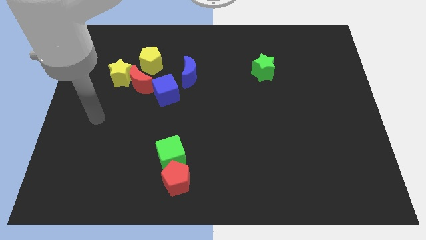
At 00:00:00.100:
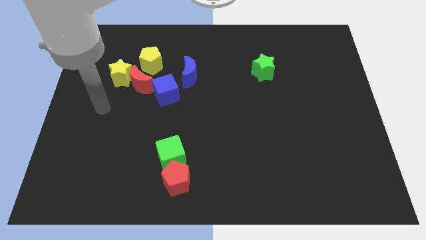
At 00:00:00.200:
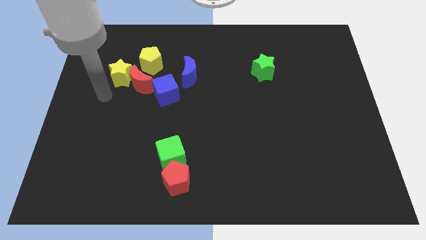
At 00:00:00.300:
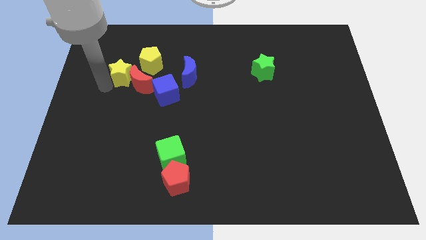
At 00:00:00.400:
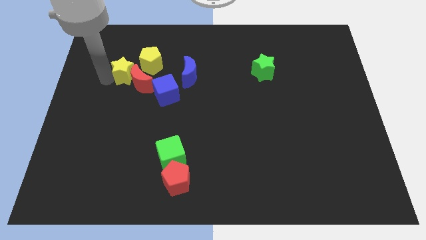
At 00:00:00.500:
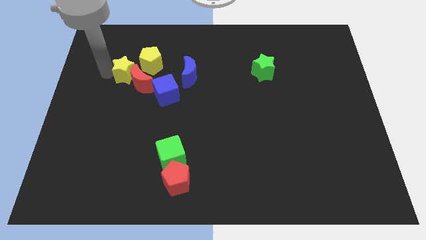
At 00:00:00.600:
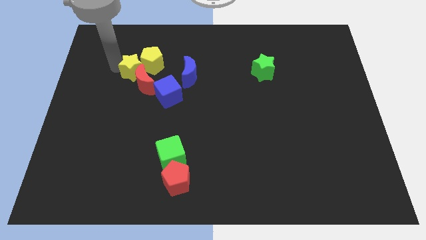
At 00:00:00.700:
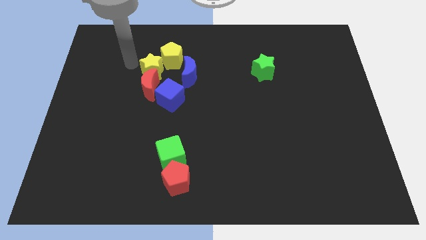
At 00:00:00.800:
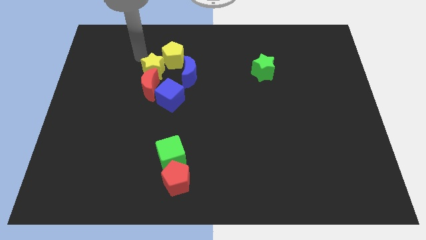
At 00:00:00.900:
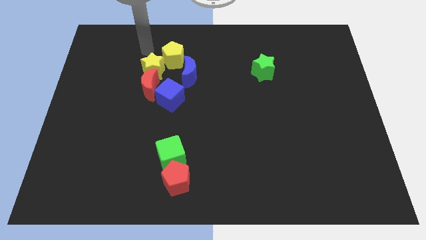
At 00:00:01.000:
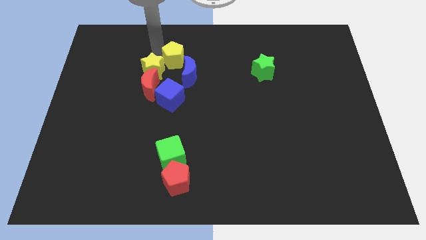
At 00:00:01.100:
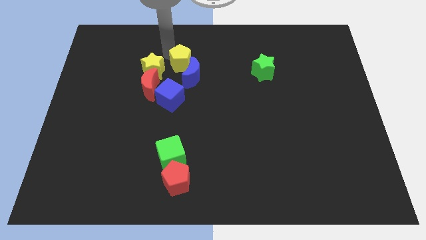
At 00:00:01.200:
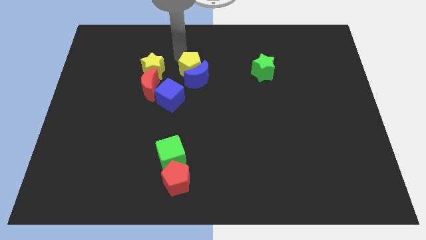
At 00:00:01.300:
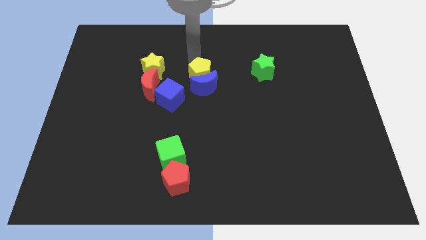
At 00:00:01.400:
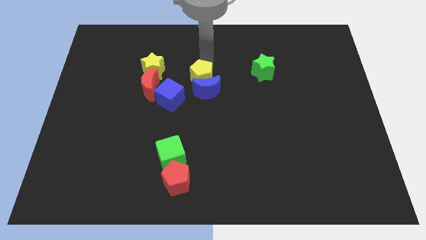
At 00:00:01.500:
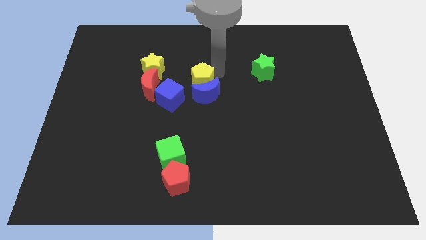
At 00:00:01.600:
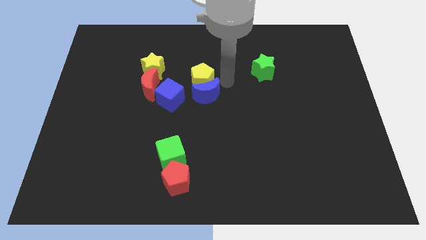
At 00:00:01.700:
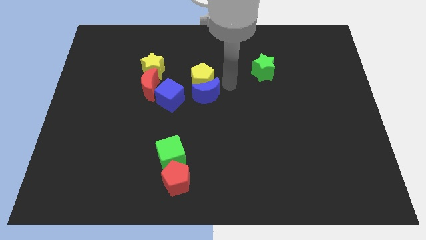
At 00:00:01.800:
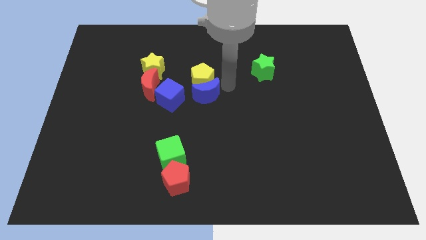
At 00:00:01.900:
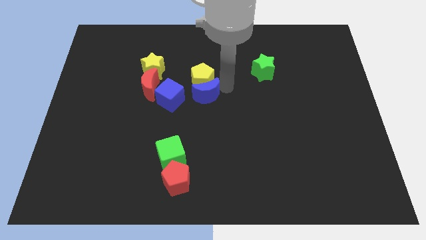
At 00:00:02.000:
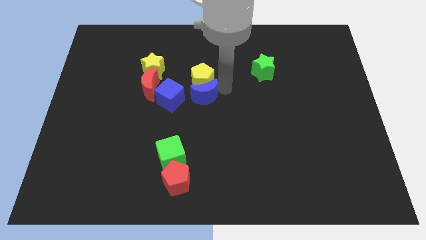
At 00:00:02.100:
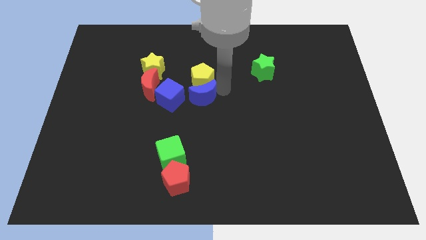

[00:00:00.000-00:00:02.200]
push the blue moon a little bit downwards

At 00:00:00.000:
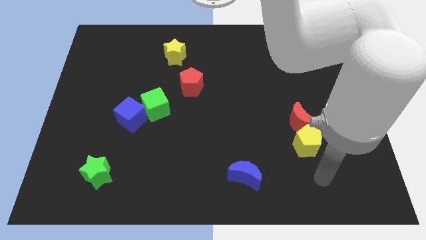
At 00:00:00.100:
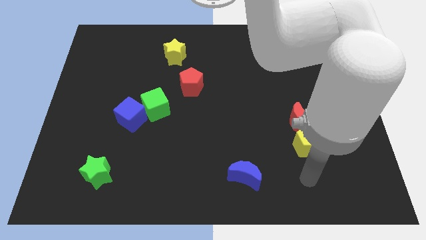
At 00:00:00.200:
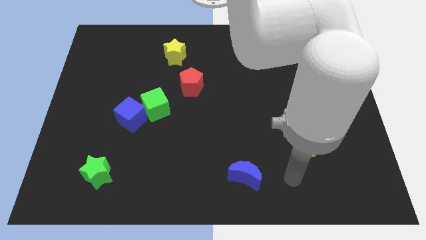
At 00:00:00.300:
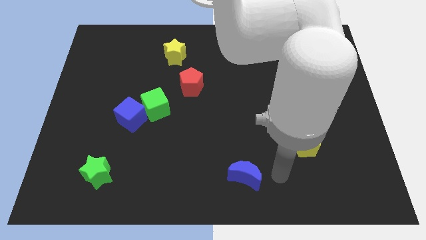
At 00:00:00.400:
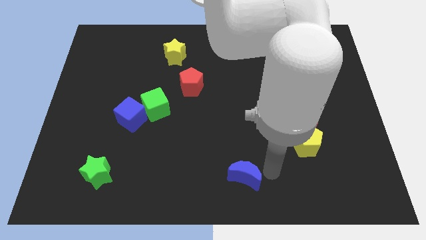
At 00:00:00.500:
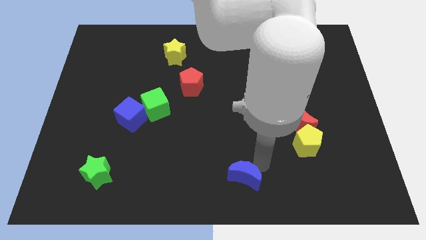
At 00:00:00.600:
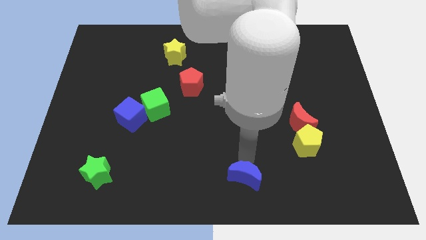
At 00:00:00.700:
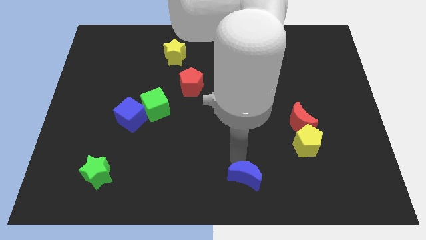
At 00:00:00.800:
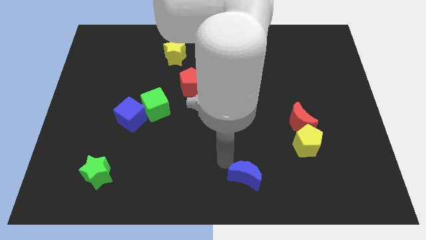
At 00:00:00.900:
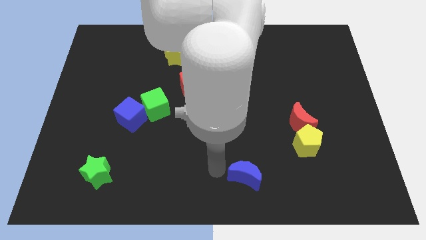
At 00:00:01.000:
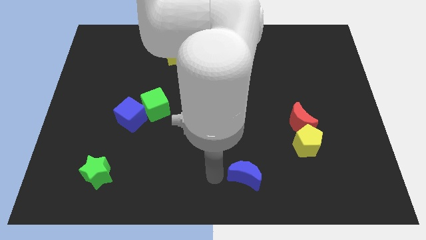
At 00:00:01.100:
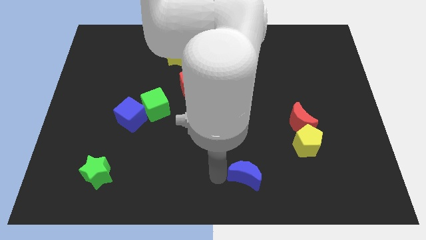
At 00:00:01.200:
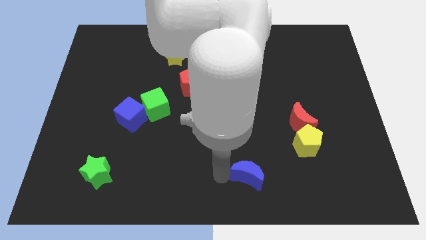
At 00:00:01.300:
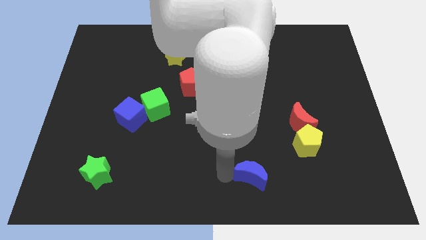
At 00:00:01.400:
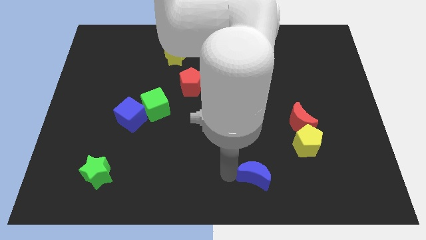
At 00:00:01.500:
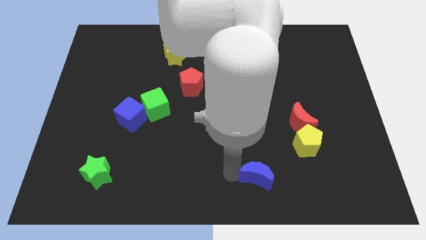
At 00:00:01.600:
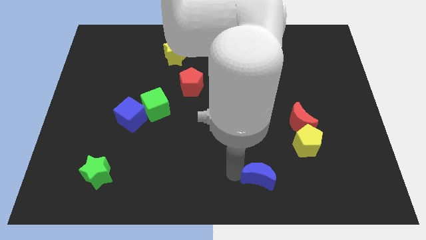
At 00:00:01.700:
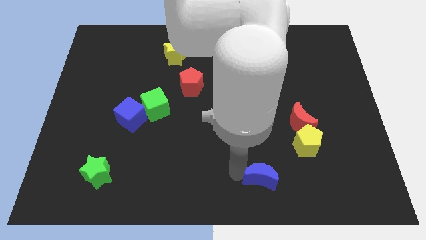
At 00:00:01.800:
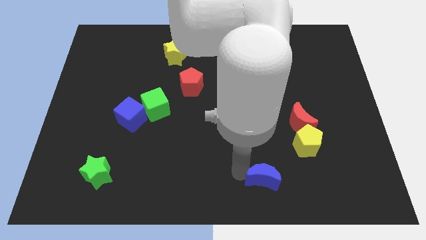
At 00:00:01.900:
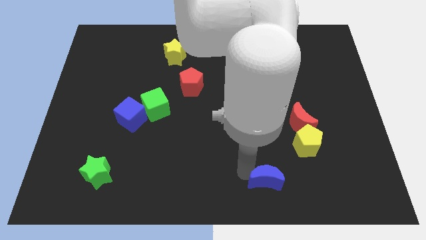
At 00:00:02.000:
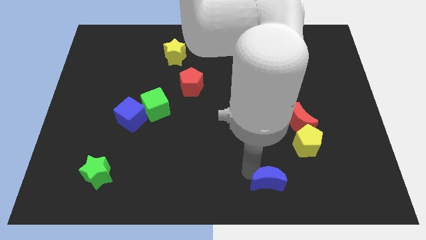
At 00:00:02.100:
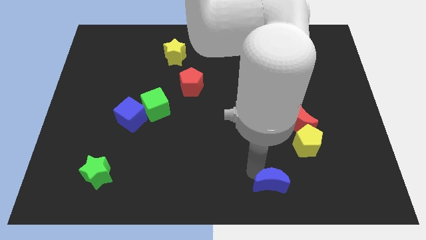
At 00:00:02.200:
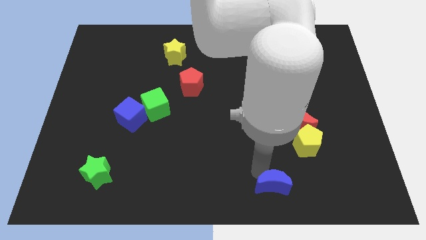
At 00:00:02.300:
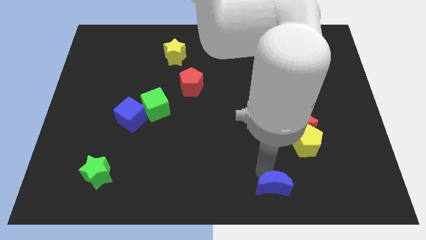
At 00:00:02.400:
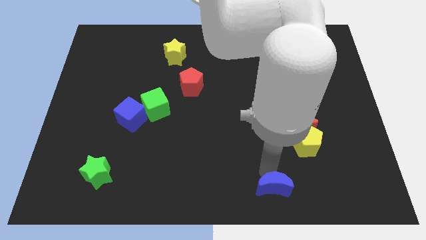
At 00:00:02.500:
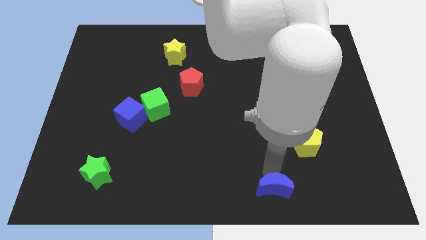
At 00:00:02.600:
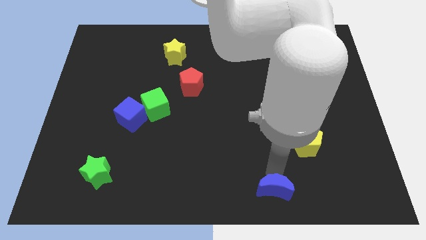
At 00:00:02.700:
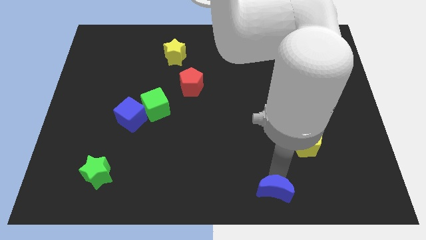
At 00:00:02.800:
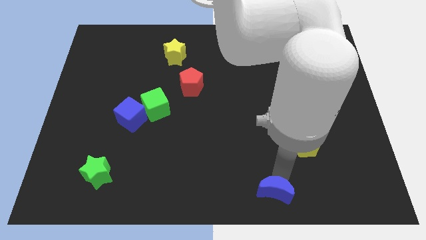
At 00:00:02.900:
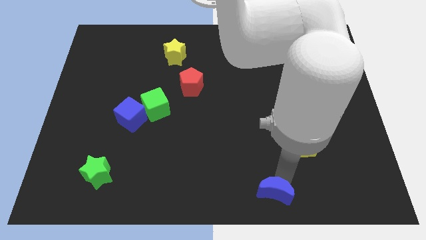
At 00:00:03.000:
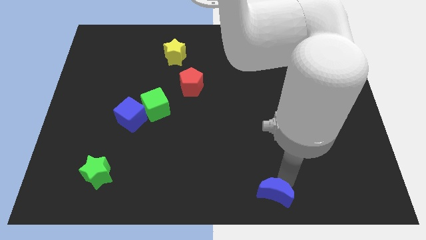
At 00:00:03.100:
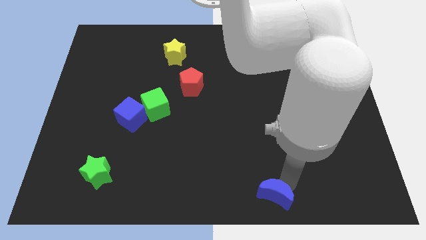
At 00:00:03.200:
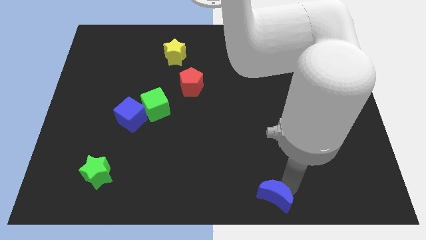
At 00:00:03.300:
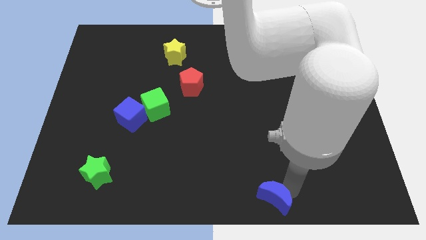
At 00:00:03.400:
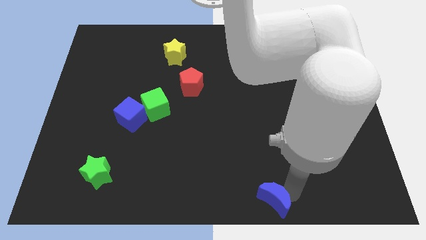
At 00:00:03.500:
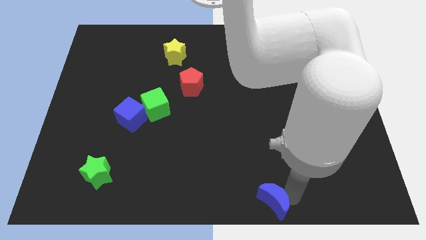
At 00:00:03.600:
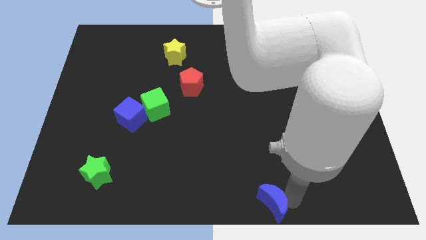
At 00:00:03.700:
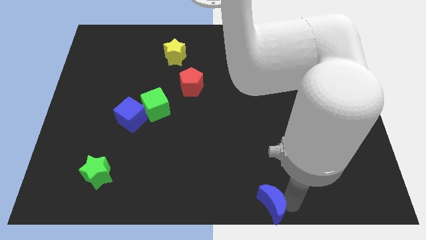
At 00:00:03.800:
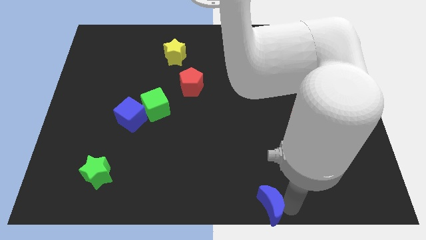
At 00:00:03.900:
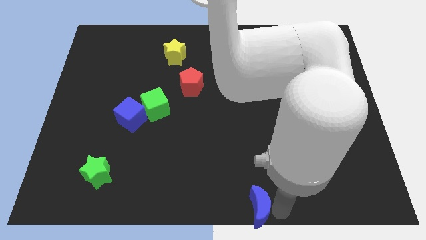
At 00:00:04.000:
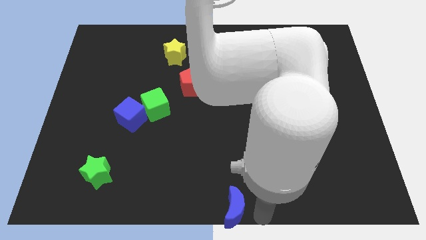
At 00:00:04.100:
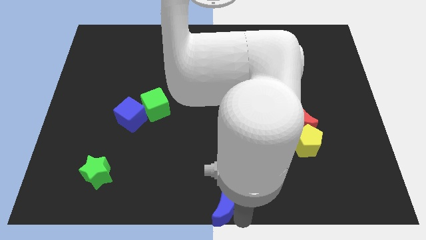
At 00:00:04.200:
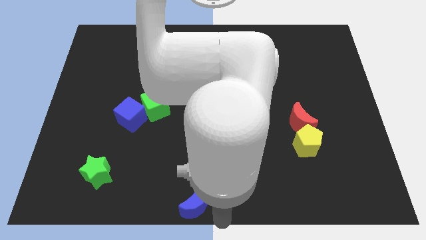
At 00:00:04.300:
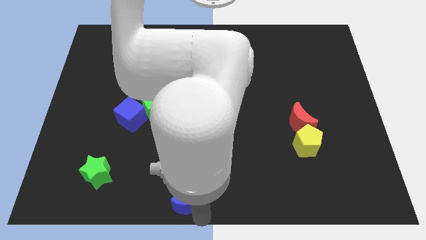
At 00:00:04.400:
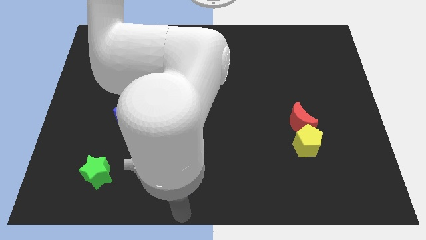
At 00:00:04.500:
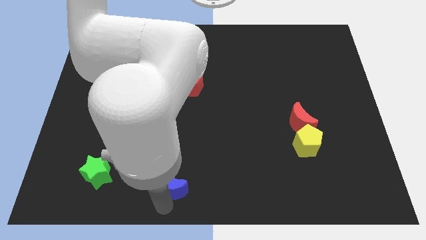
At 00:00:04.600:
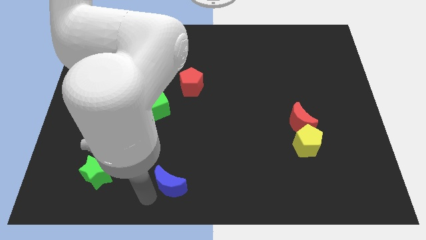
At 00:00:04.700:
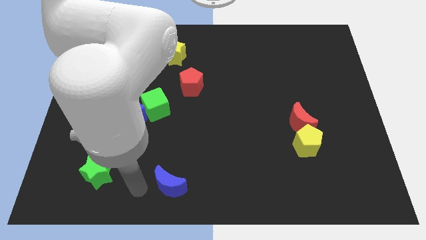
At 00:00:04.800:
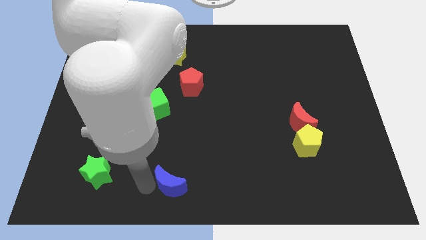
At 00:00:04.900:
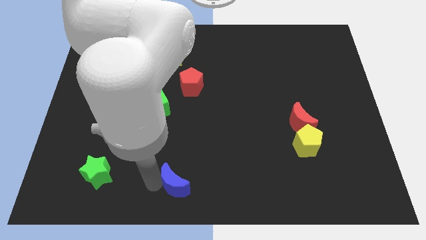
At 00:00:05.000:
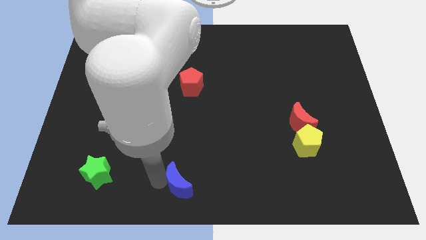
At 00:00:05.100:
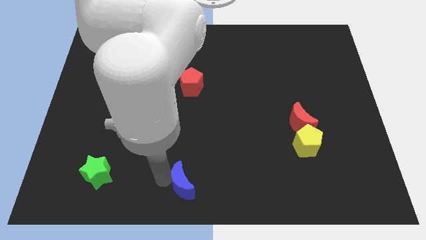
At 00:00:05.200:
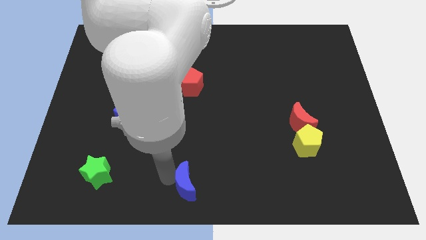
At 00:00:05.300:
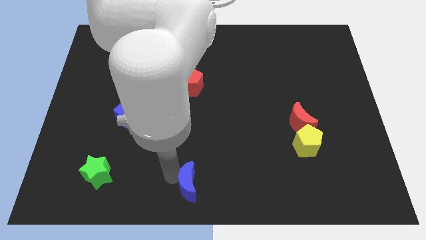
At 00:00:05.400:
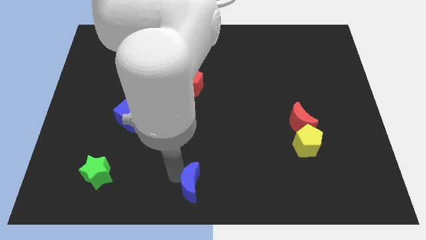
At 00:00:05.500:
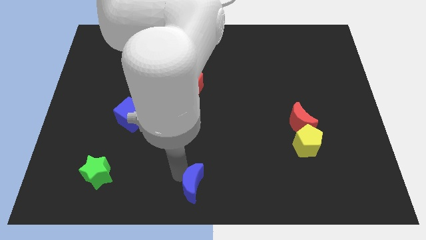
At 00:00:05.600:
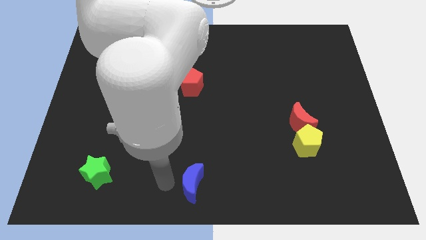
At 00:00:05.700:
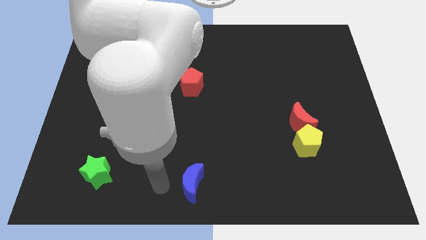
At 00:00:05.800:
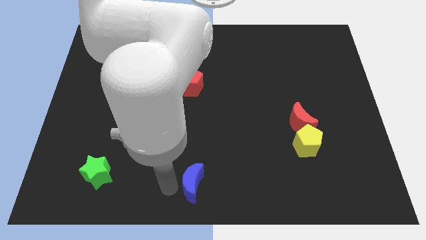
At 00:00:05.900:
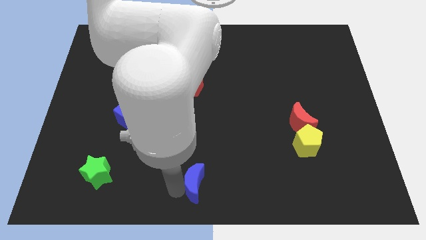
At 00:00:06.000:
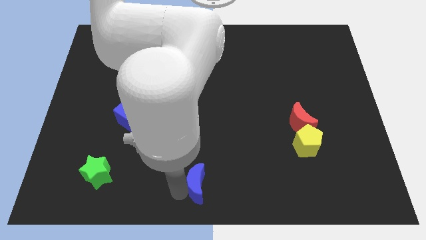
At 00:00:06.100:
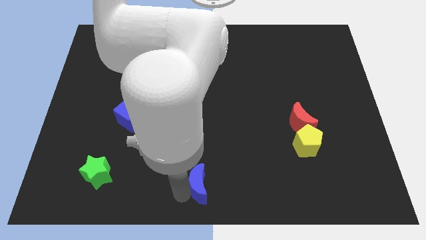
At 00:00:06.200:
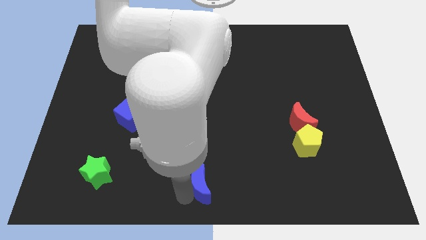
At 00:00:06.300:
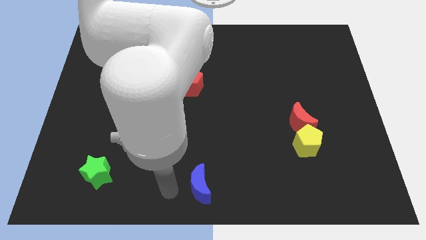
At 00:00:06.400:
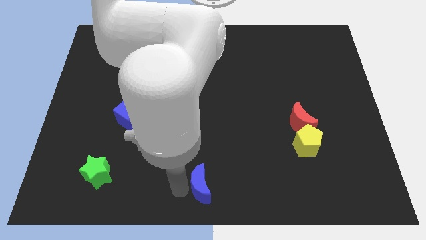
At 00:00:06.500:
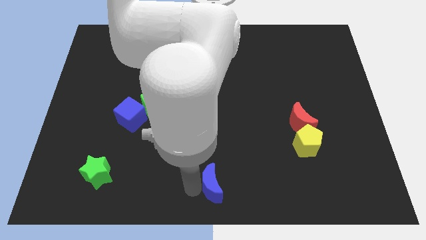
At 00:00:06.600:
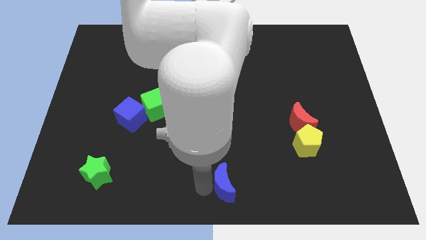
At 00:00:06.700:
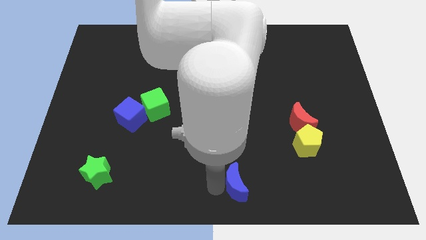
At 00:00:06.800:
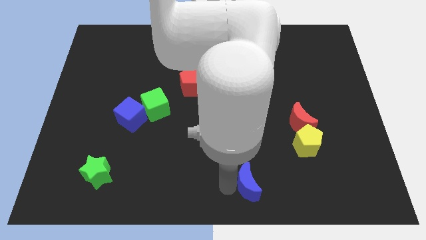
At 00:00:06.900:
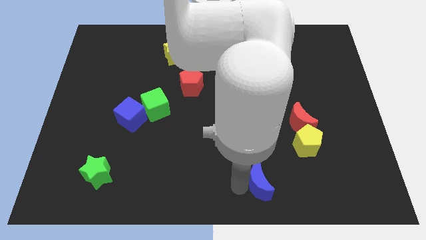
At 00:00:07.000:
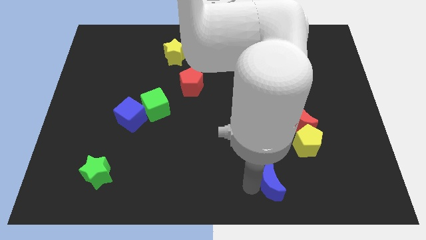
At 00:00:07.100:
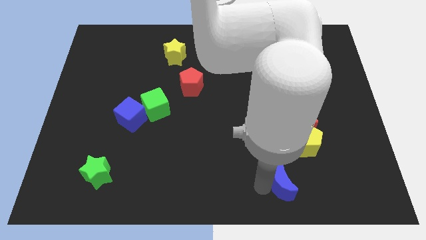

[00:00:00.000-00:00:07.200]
slightly push the blue moon right
